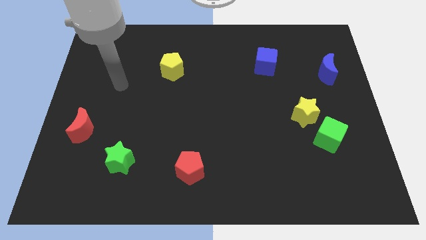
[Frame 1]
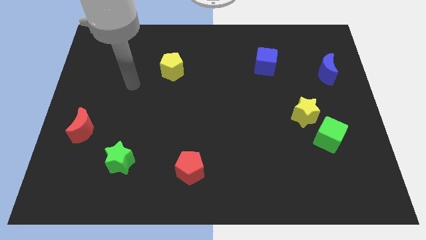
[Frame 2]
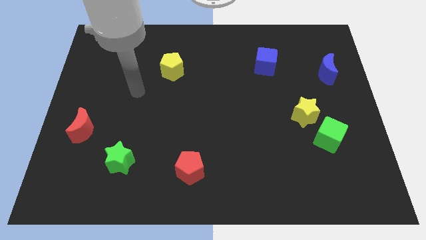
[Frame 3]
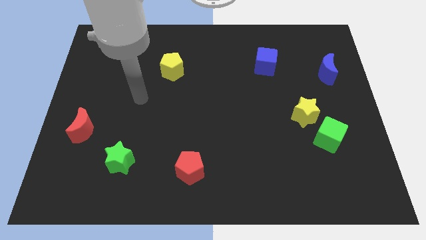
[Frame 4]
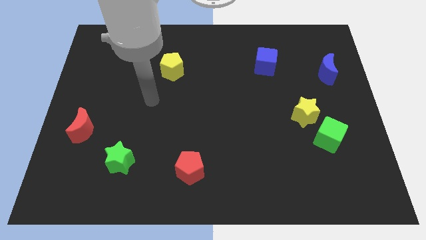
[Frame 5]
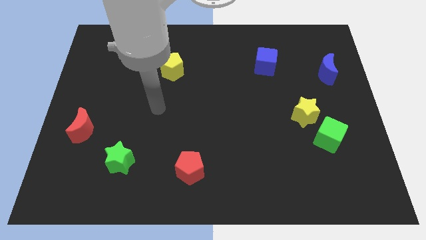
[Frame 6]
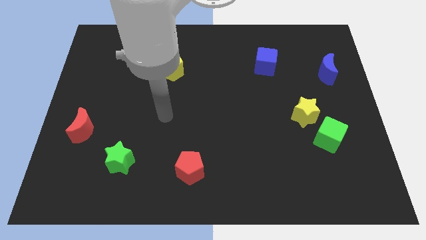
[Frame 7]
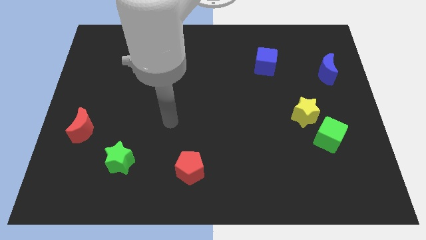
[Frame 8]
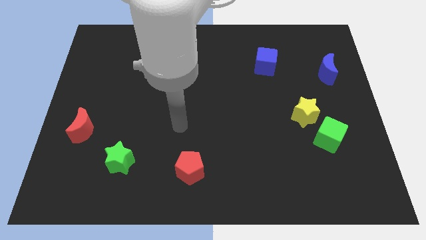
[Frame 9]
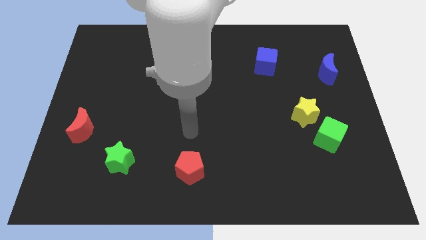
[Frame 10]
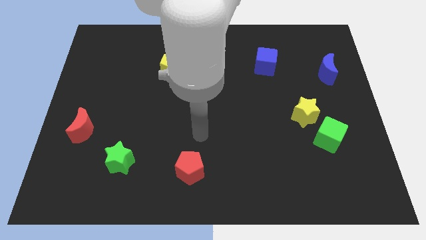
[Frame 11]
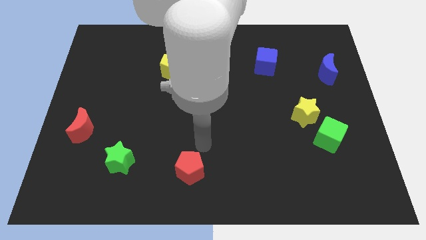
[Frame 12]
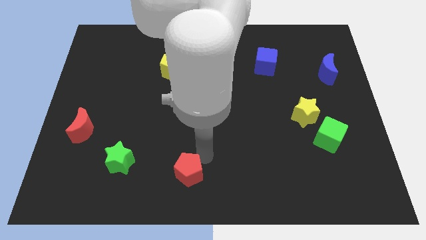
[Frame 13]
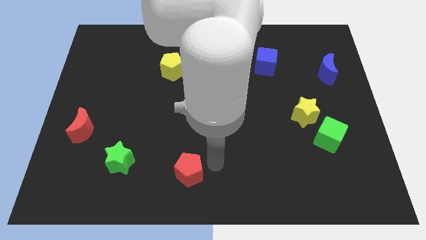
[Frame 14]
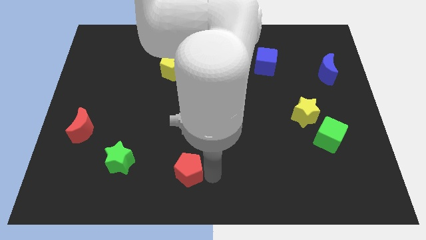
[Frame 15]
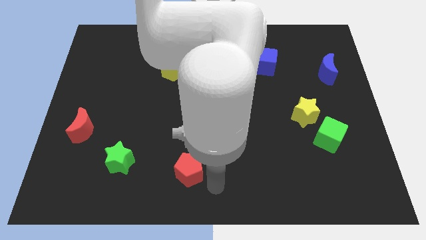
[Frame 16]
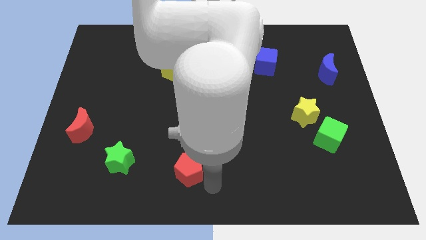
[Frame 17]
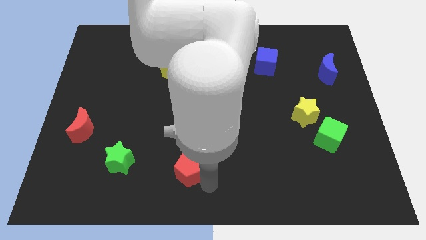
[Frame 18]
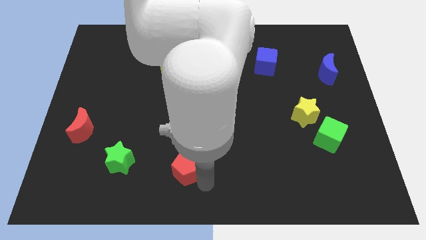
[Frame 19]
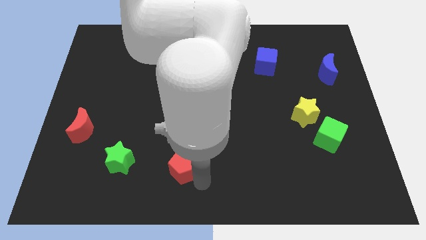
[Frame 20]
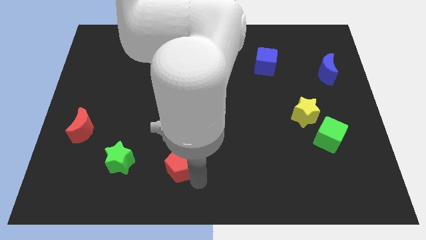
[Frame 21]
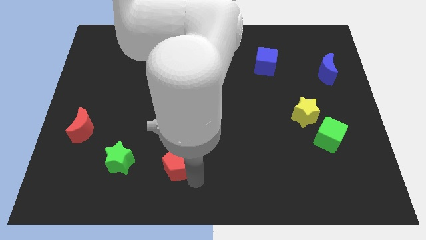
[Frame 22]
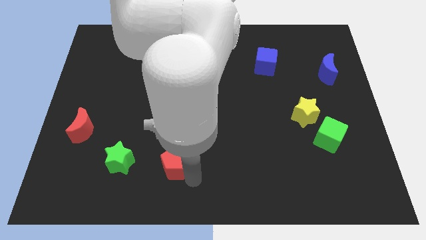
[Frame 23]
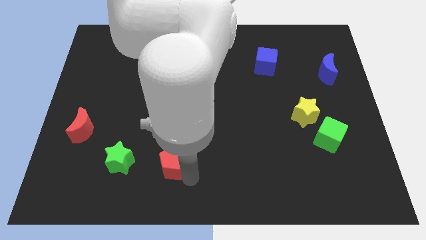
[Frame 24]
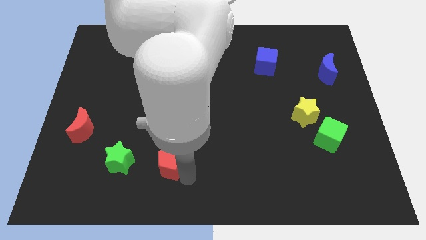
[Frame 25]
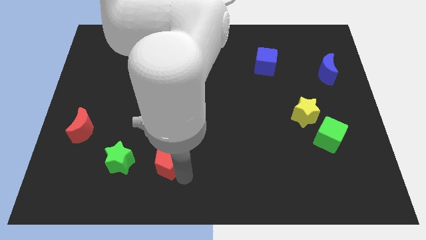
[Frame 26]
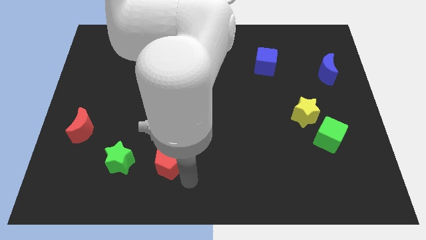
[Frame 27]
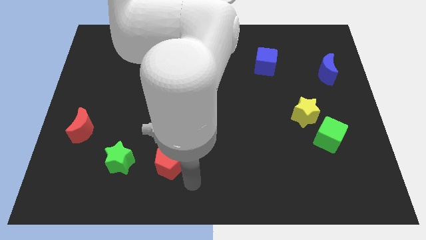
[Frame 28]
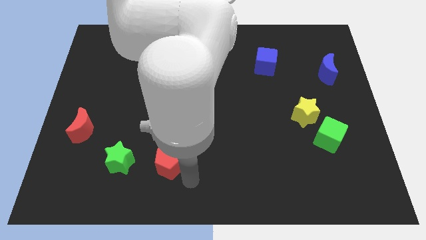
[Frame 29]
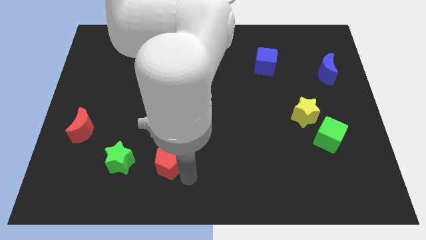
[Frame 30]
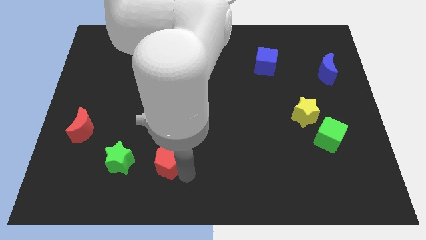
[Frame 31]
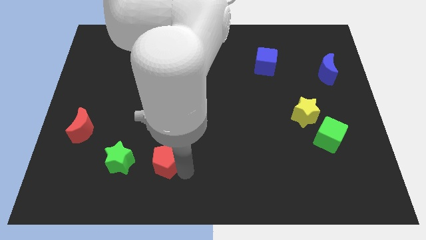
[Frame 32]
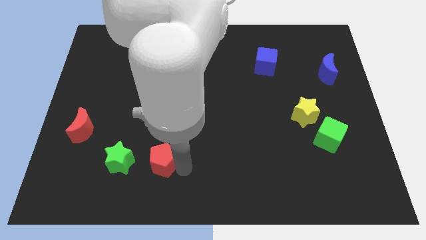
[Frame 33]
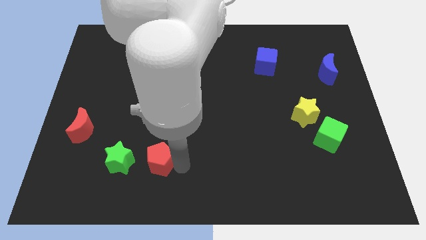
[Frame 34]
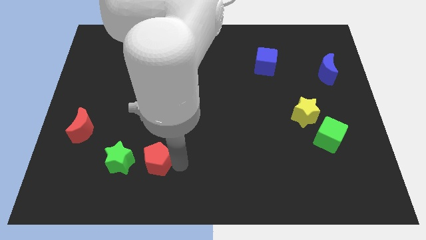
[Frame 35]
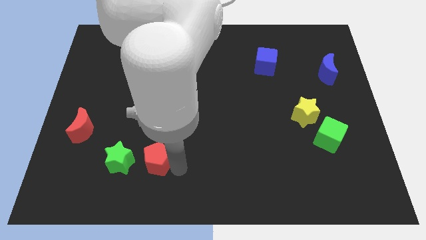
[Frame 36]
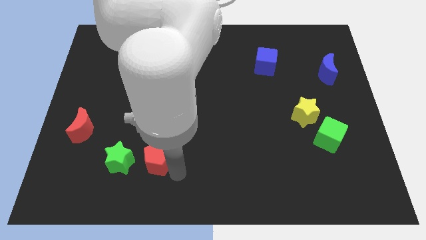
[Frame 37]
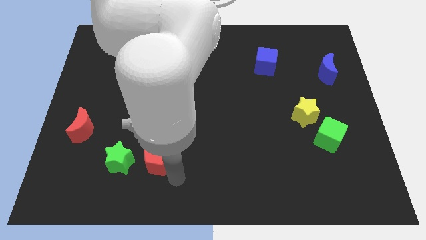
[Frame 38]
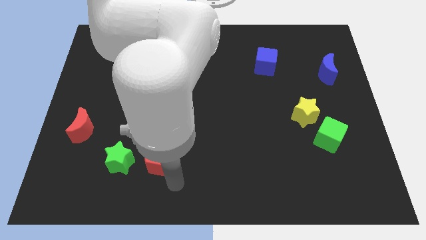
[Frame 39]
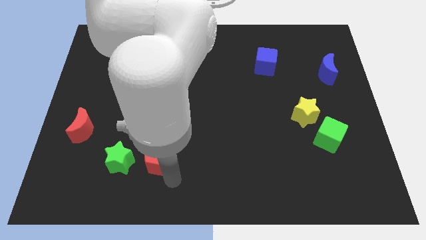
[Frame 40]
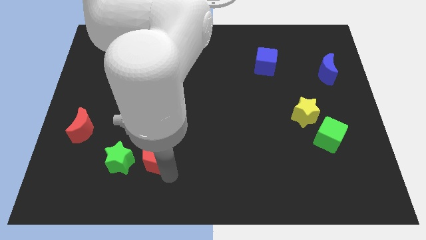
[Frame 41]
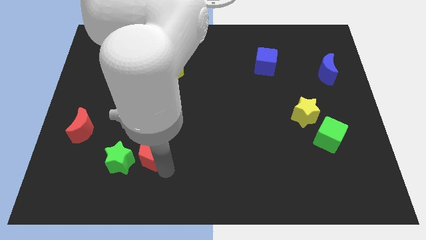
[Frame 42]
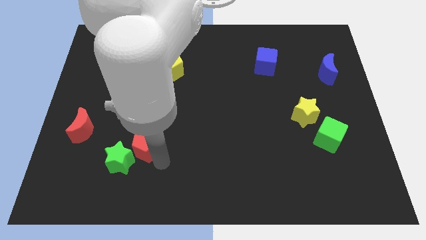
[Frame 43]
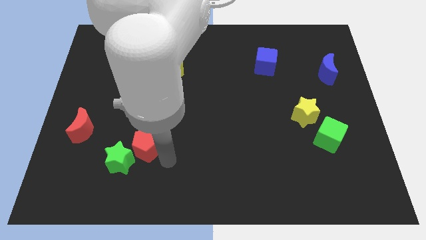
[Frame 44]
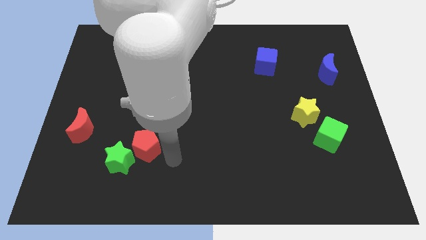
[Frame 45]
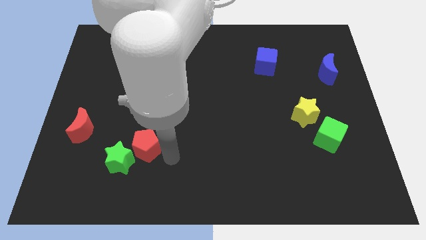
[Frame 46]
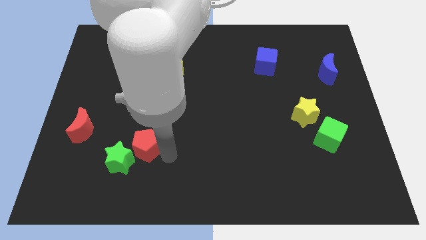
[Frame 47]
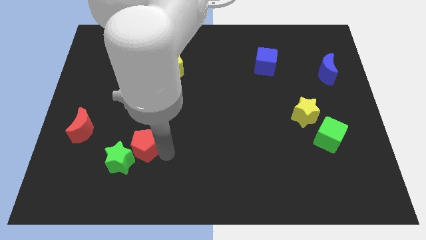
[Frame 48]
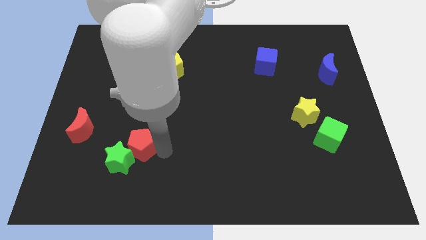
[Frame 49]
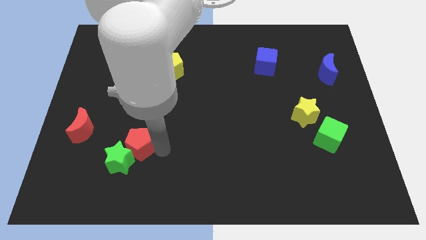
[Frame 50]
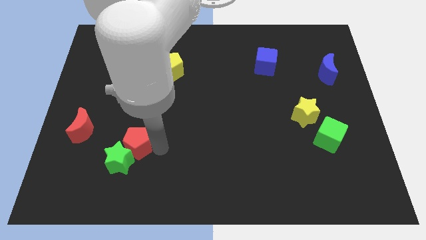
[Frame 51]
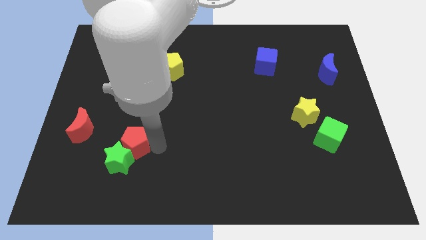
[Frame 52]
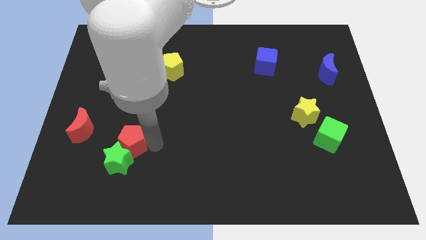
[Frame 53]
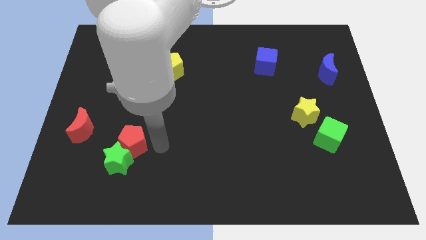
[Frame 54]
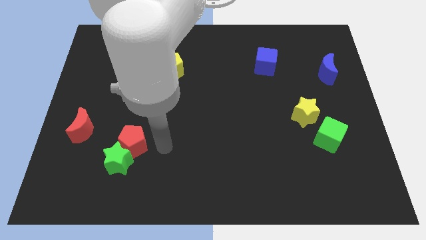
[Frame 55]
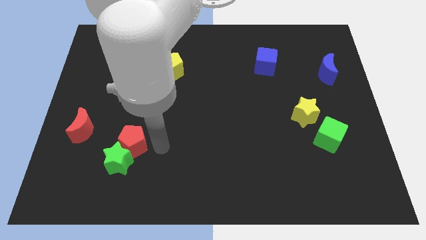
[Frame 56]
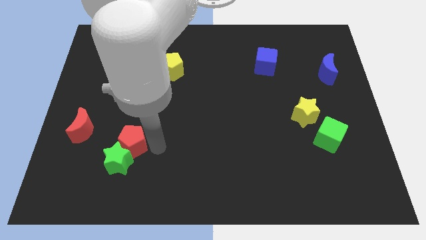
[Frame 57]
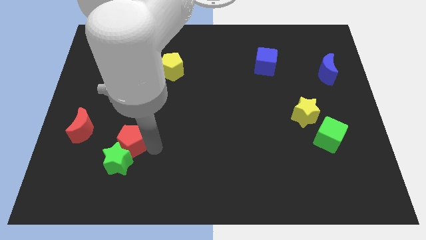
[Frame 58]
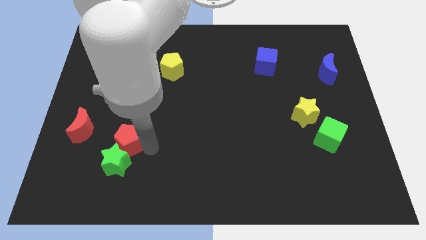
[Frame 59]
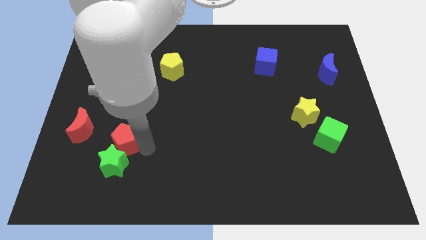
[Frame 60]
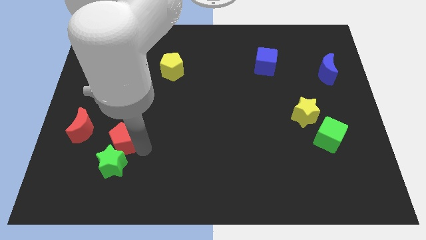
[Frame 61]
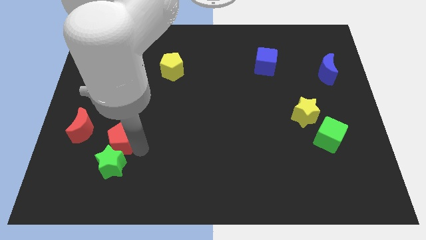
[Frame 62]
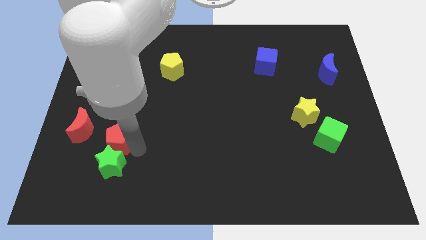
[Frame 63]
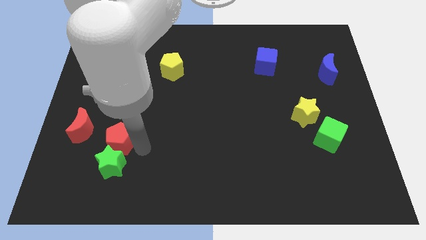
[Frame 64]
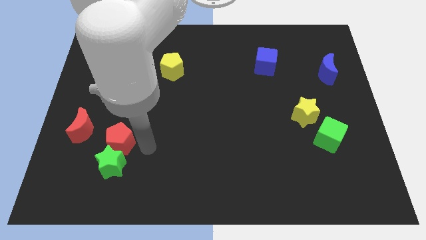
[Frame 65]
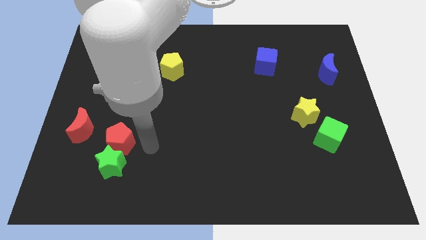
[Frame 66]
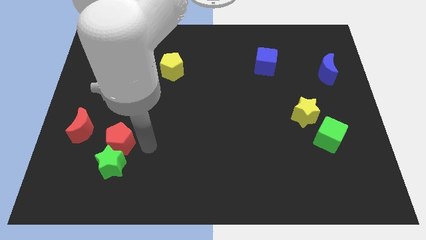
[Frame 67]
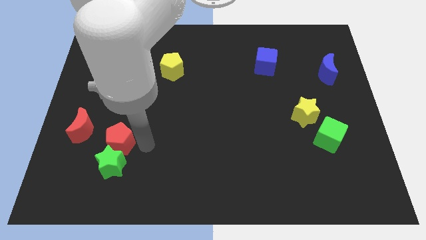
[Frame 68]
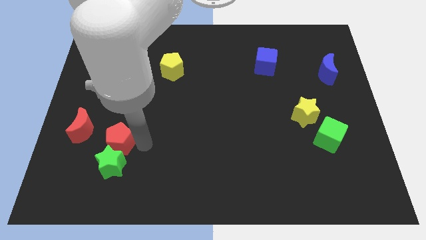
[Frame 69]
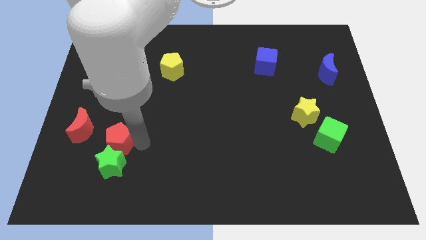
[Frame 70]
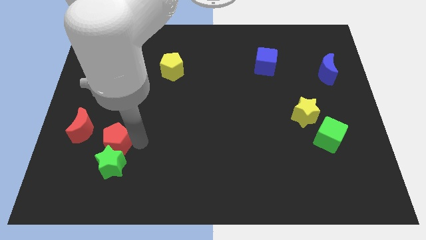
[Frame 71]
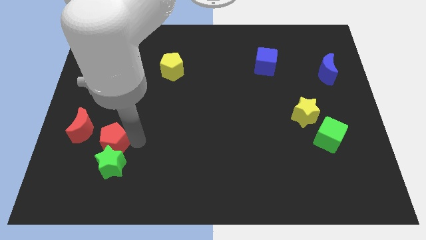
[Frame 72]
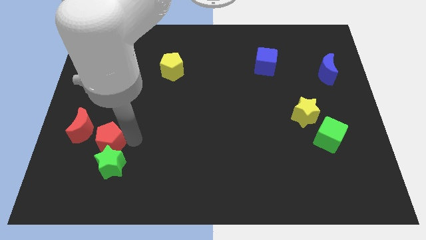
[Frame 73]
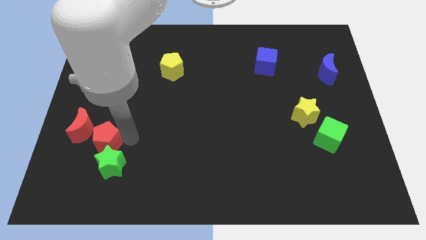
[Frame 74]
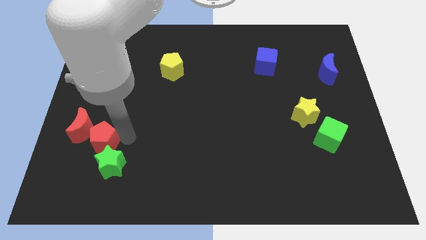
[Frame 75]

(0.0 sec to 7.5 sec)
push the red pentagon close to the red moon

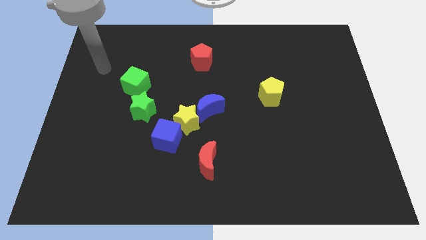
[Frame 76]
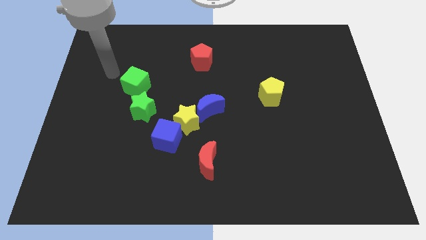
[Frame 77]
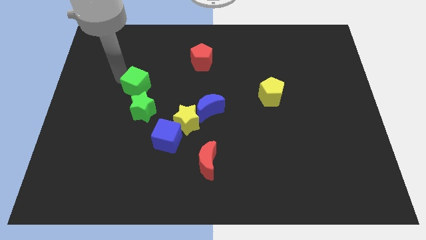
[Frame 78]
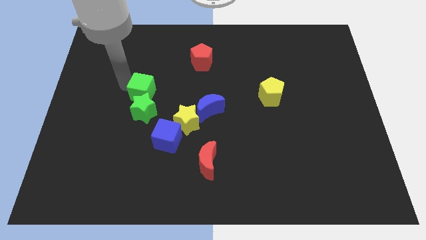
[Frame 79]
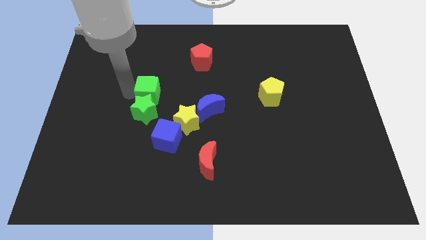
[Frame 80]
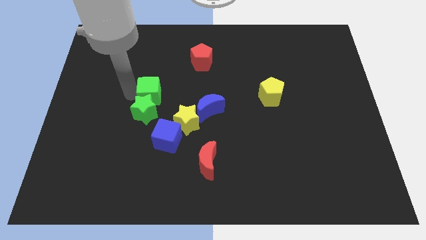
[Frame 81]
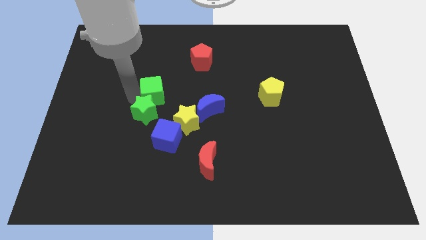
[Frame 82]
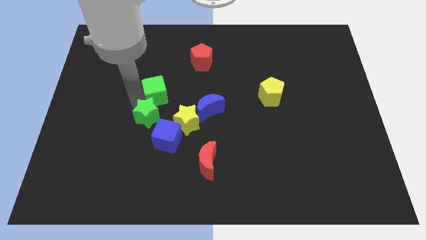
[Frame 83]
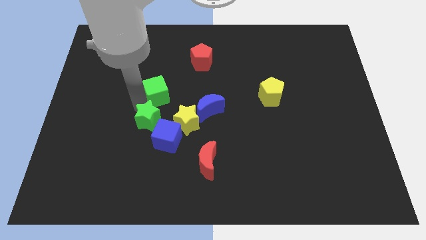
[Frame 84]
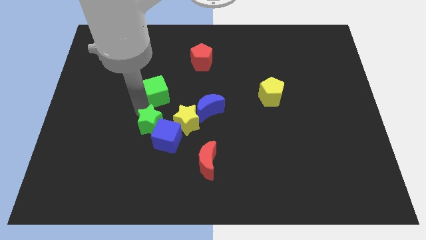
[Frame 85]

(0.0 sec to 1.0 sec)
push the green star next to the blue cube
